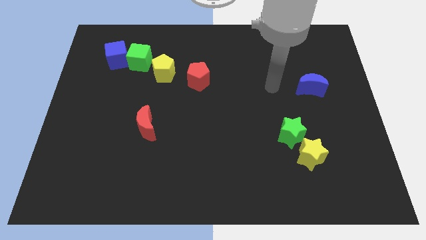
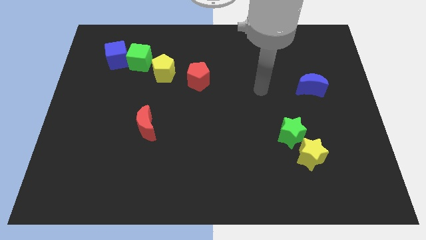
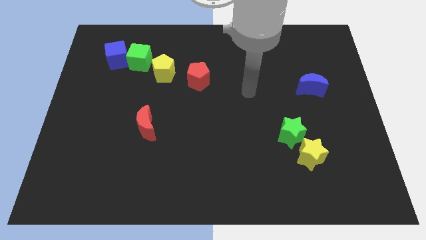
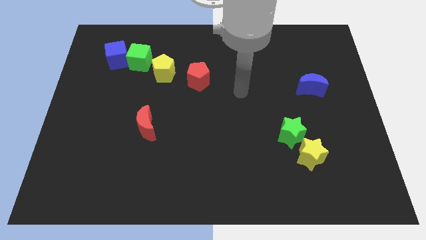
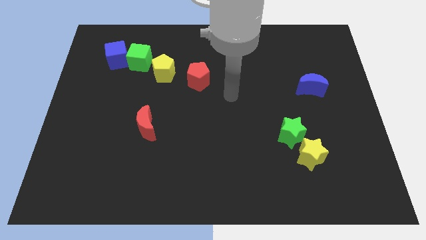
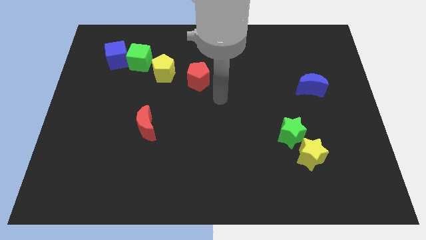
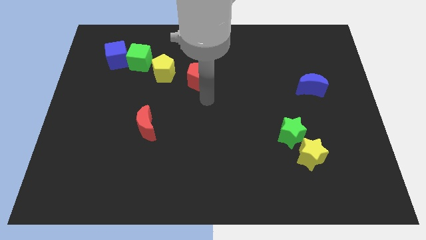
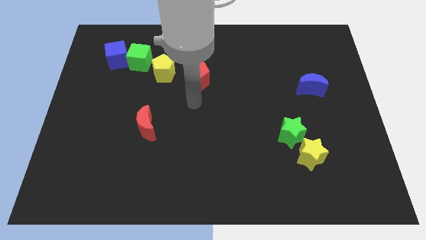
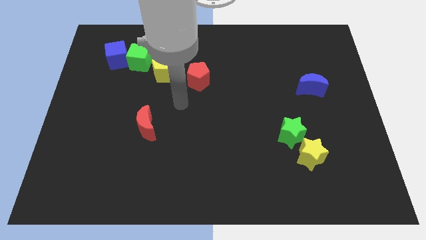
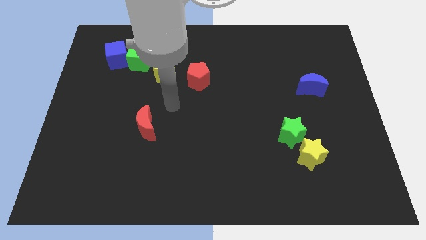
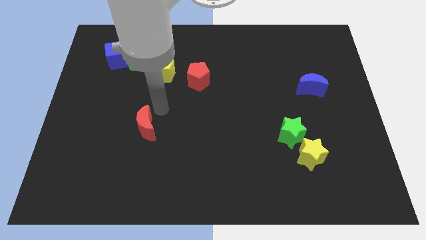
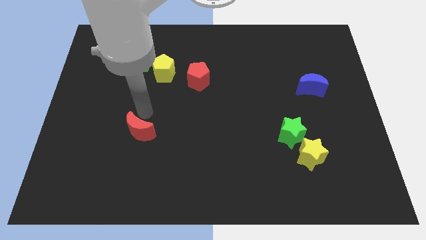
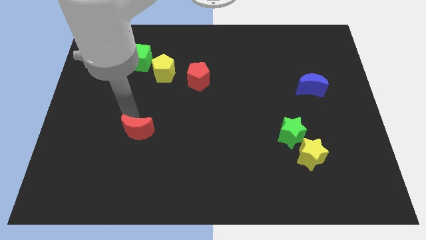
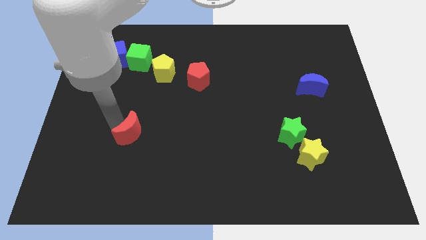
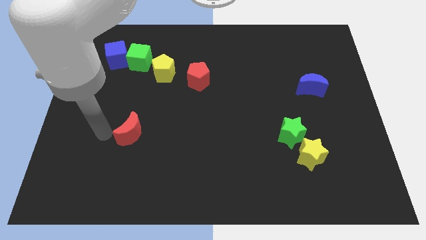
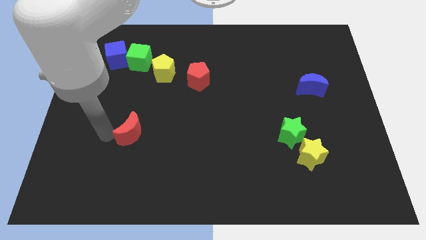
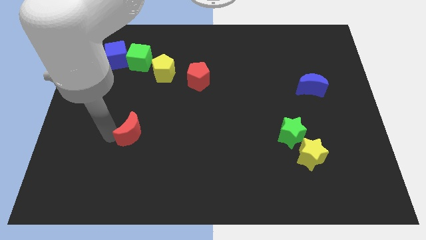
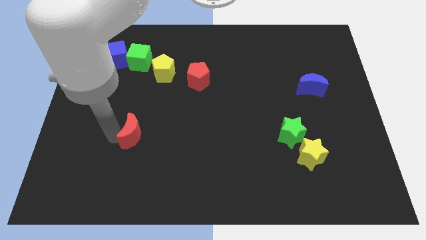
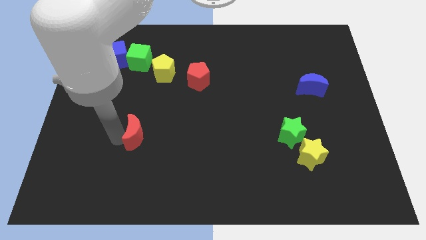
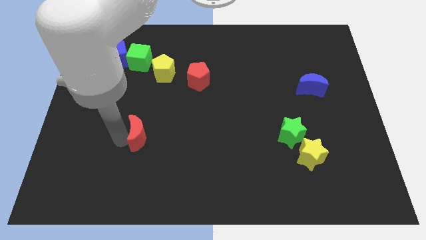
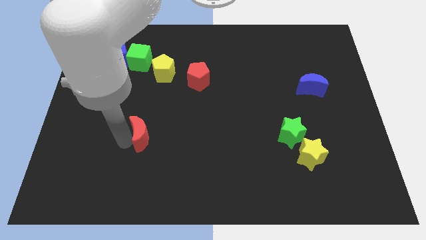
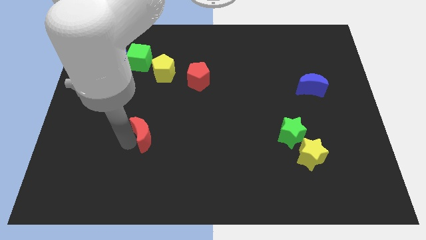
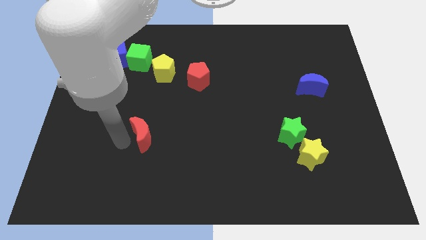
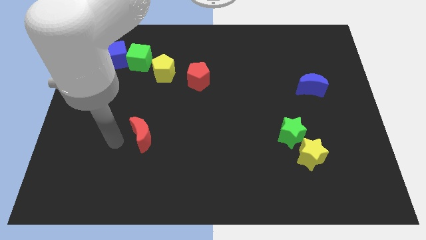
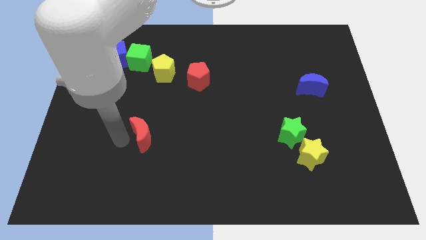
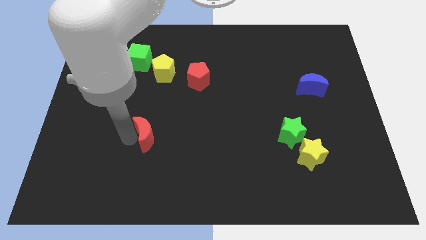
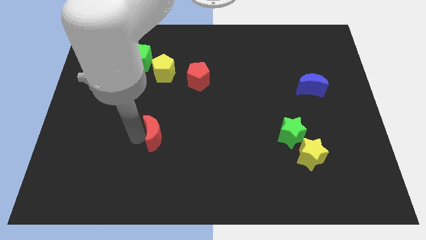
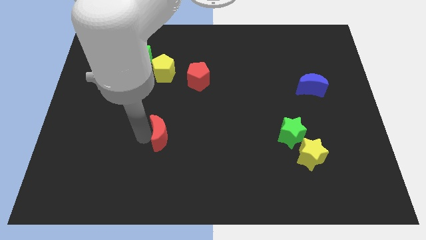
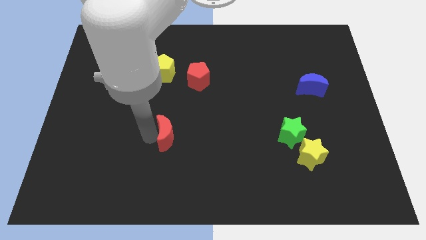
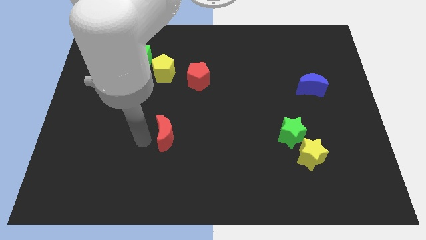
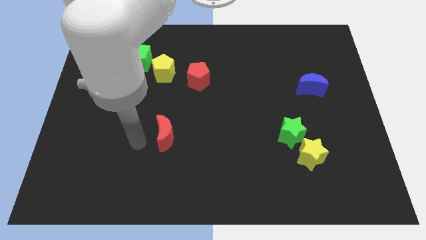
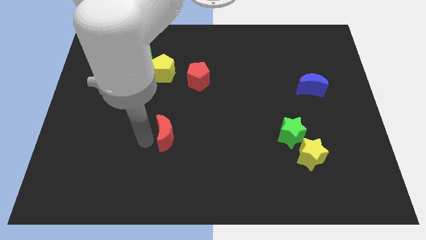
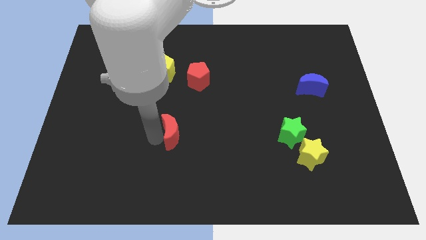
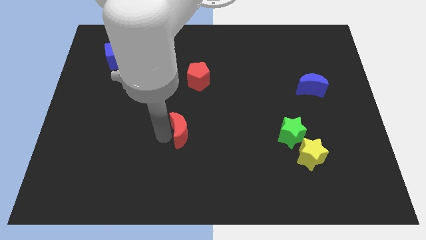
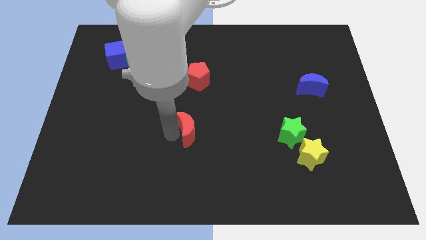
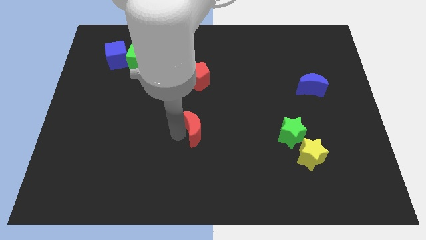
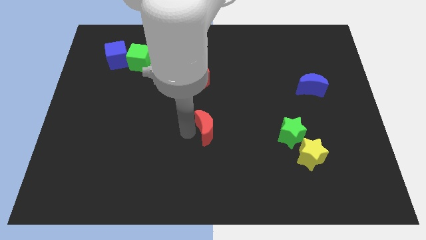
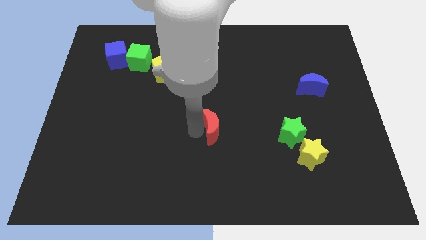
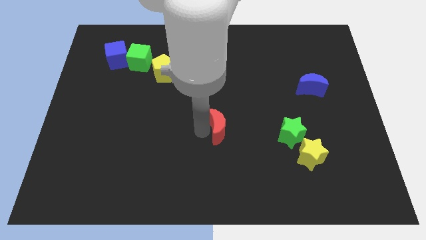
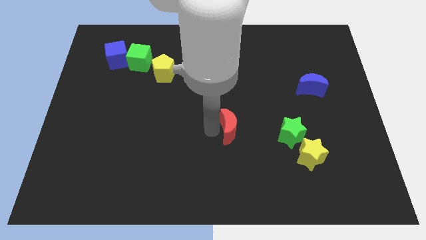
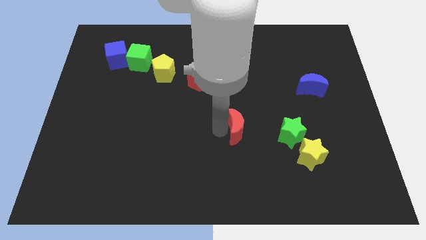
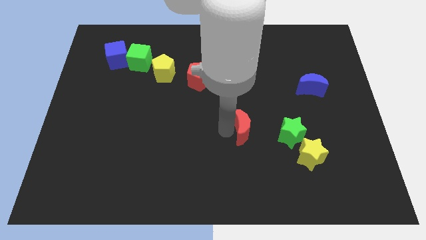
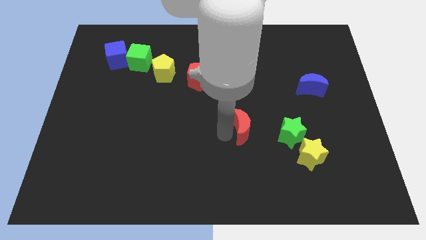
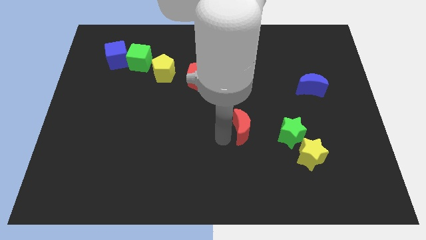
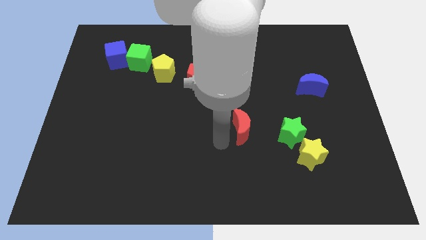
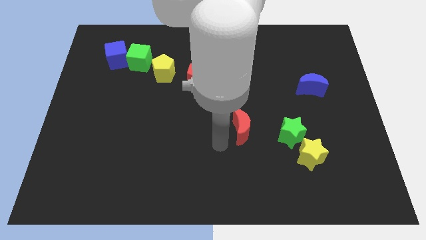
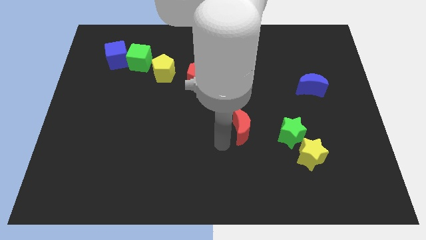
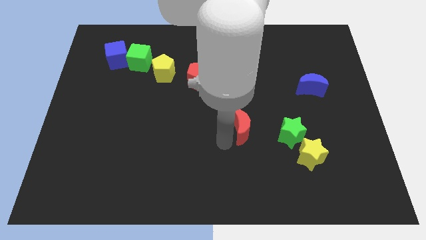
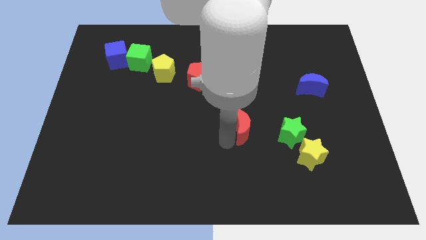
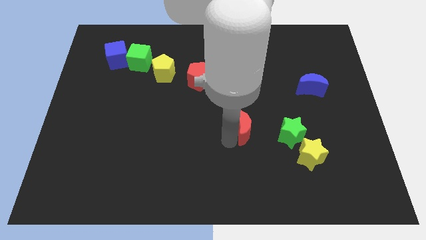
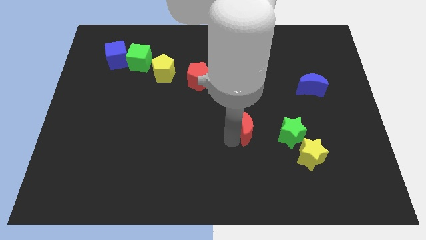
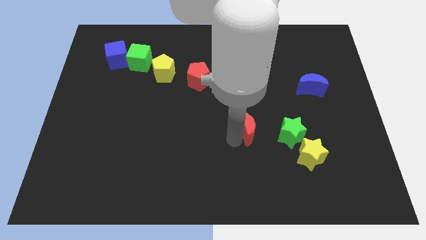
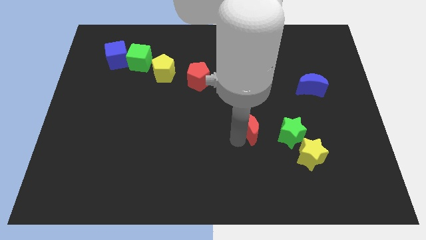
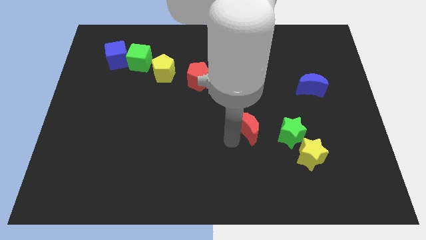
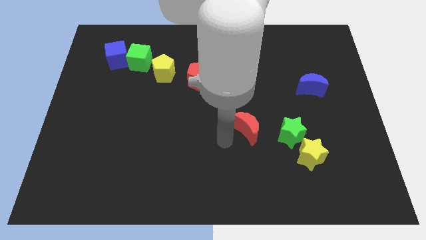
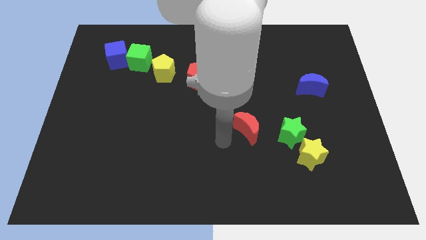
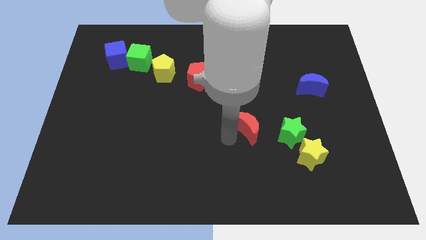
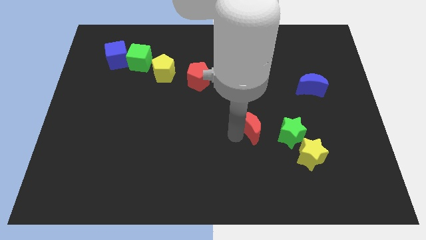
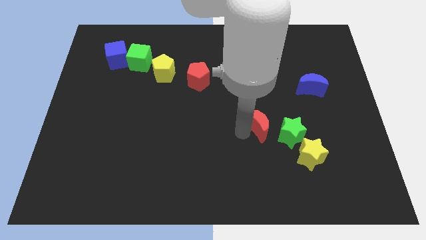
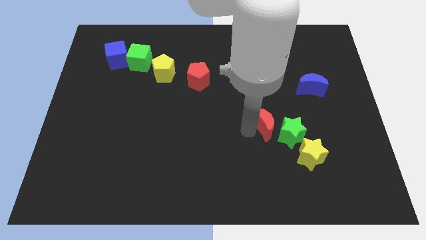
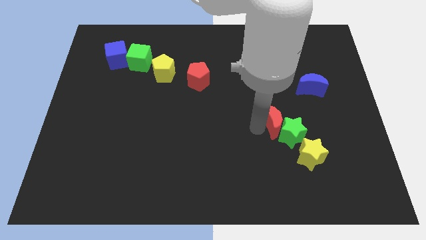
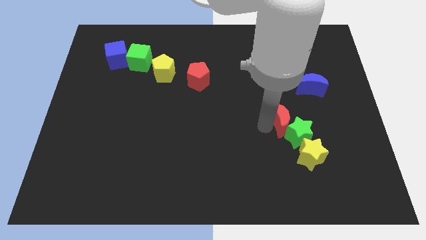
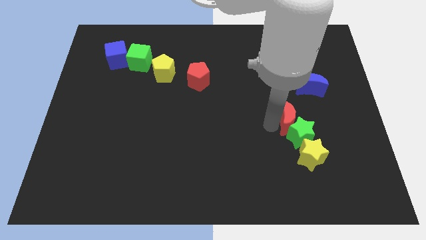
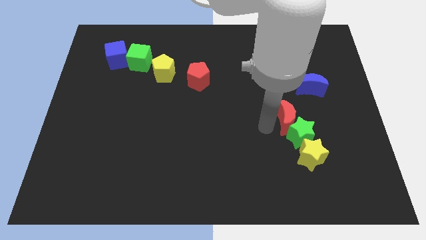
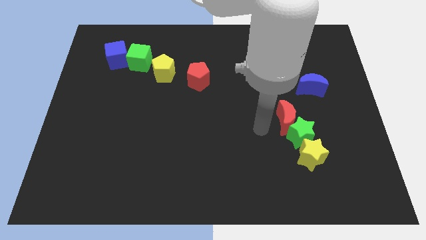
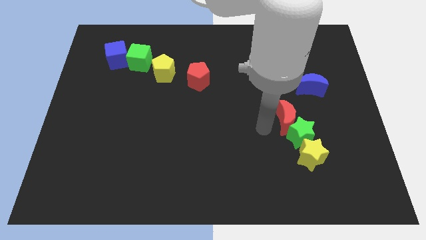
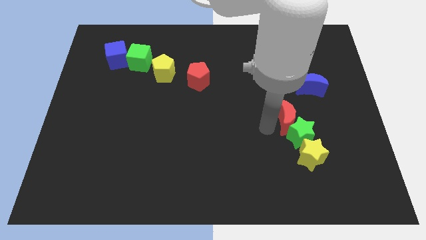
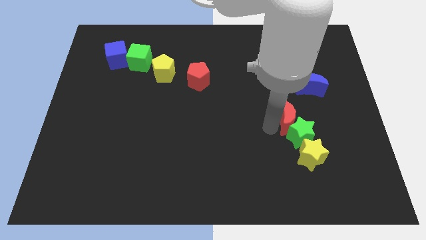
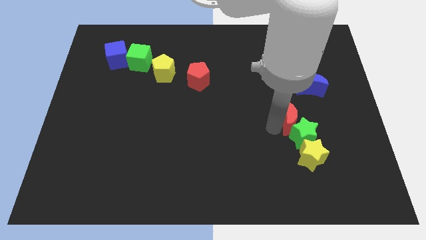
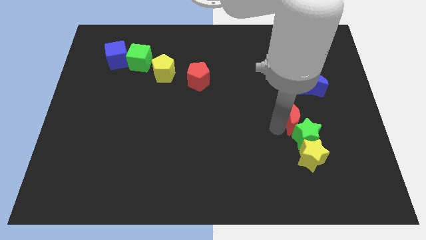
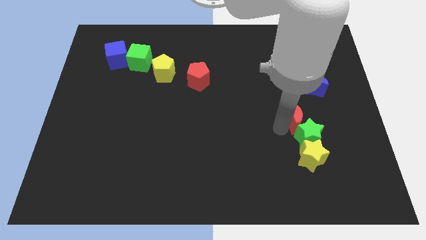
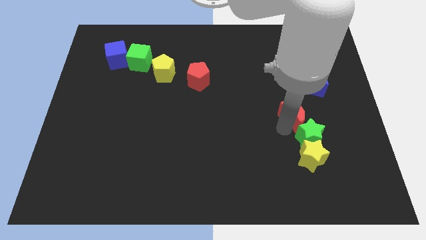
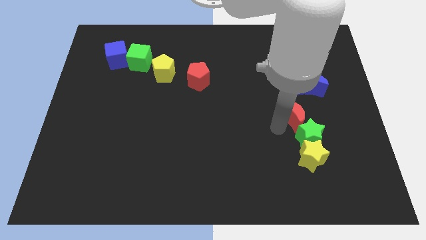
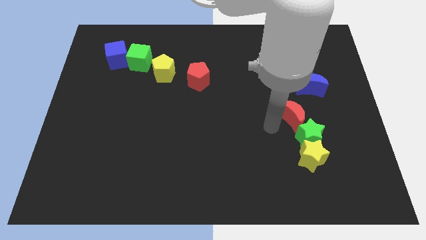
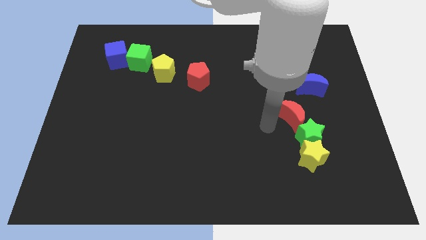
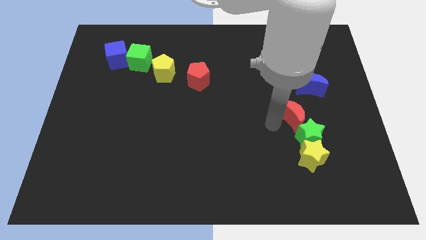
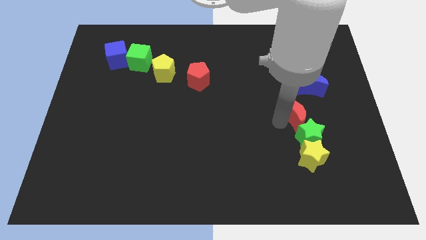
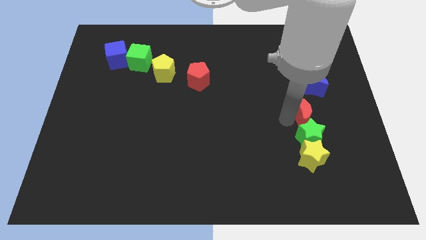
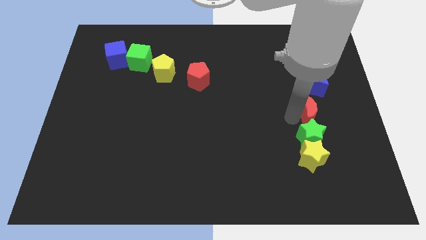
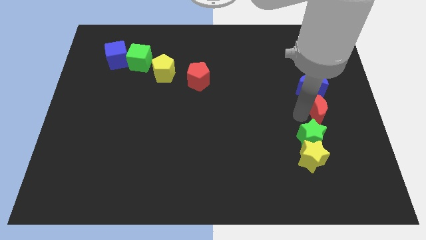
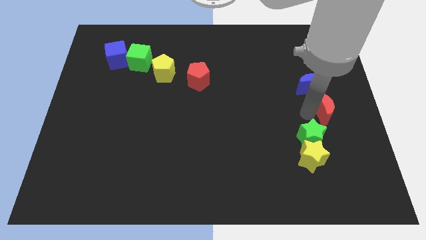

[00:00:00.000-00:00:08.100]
slide the red moon to the center right
